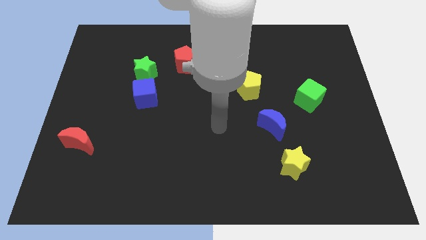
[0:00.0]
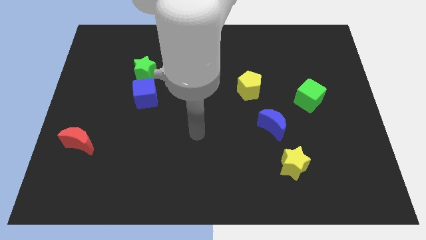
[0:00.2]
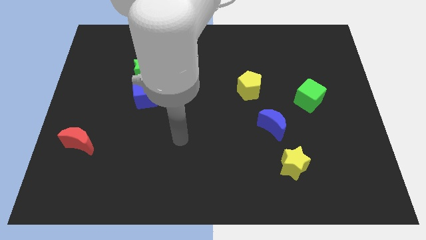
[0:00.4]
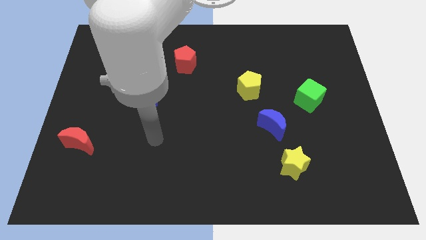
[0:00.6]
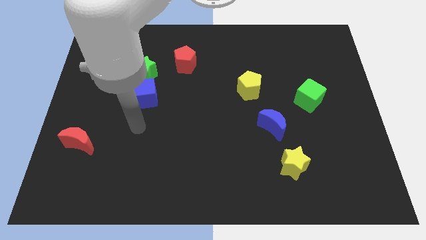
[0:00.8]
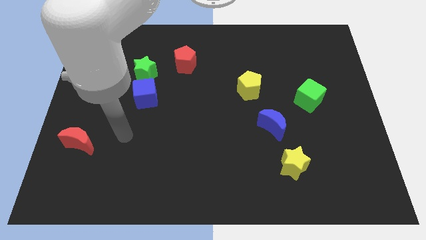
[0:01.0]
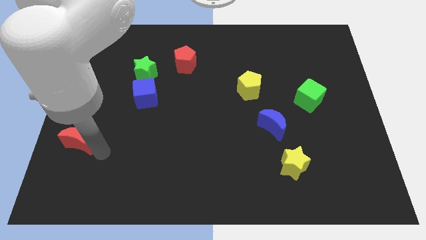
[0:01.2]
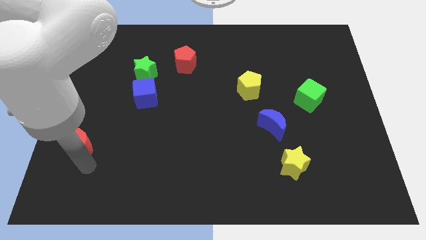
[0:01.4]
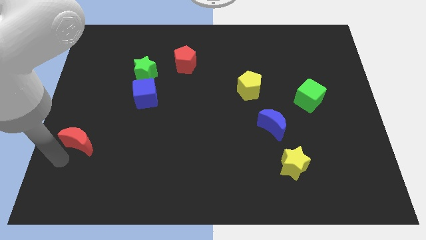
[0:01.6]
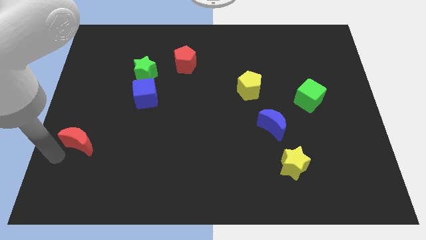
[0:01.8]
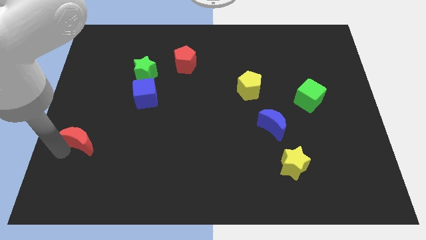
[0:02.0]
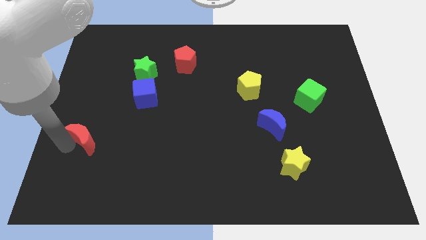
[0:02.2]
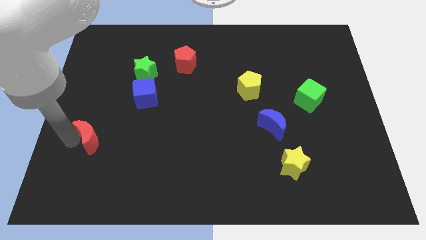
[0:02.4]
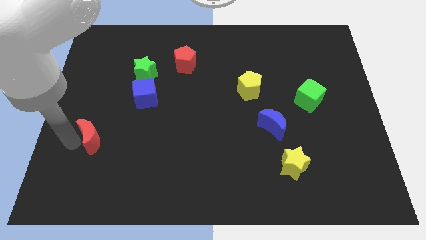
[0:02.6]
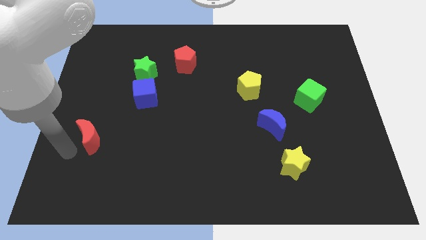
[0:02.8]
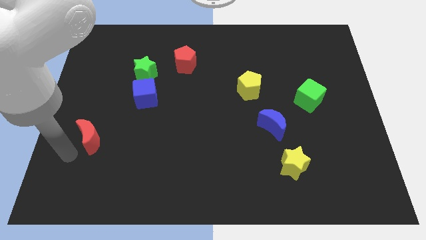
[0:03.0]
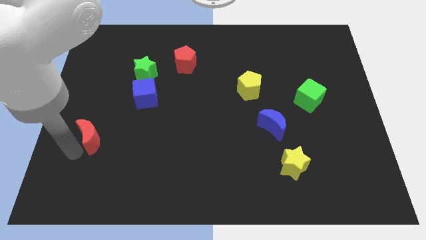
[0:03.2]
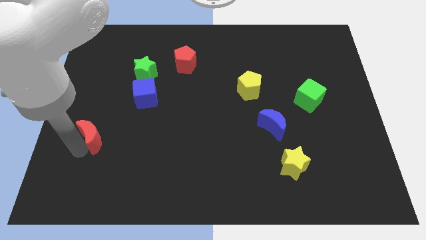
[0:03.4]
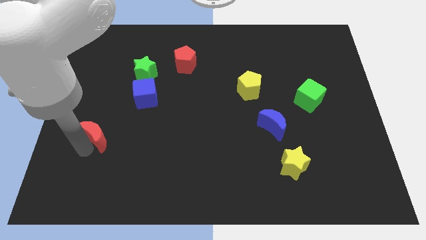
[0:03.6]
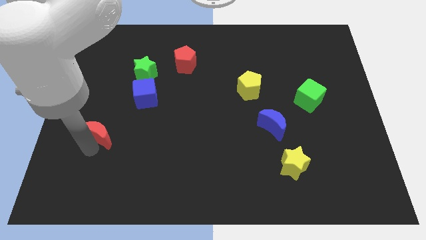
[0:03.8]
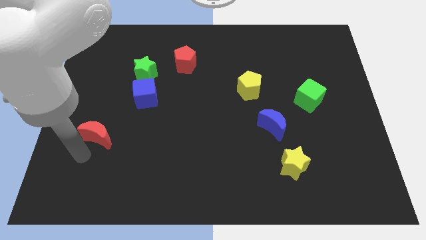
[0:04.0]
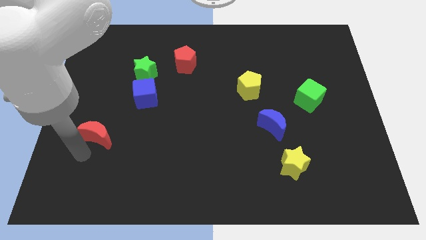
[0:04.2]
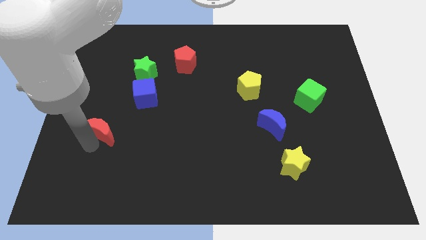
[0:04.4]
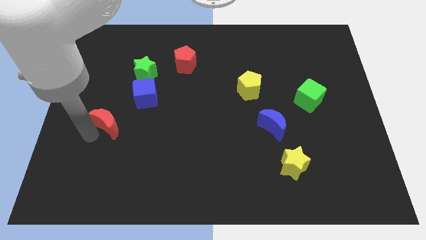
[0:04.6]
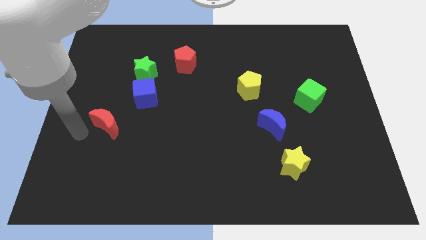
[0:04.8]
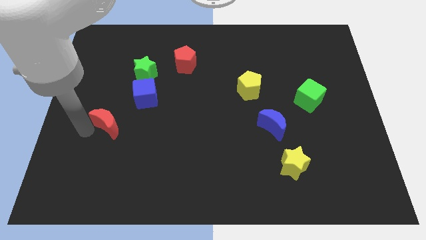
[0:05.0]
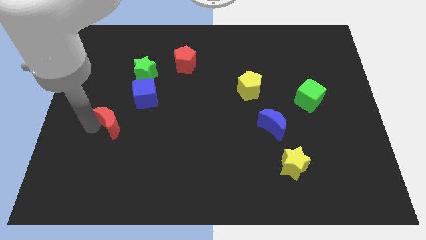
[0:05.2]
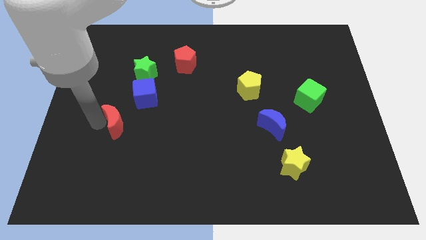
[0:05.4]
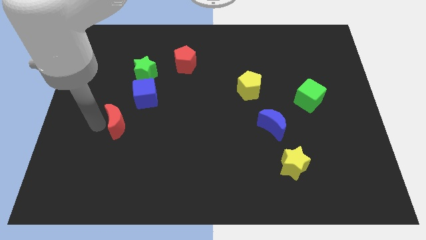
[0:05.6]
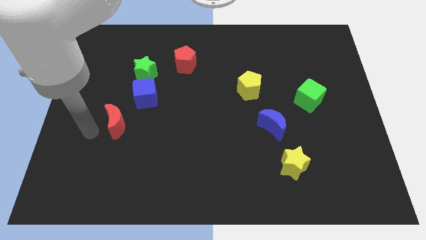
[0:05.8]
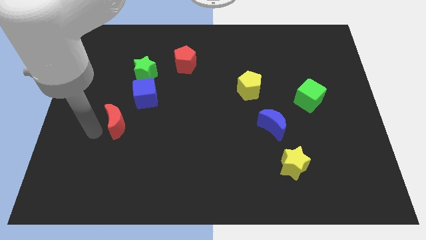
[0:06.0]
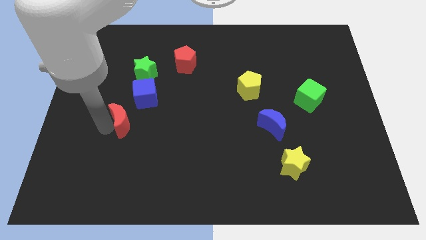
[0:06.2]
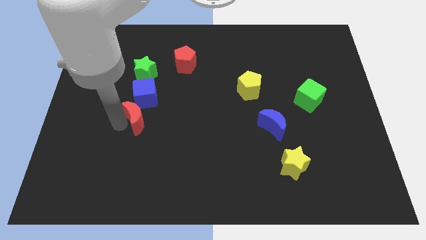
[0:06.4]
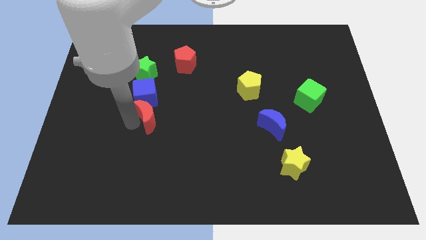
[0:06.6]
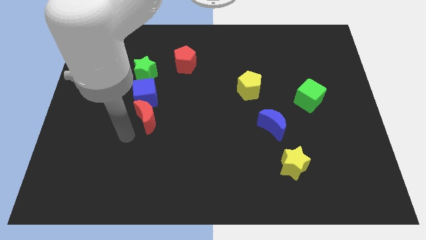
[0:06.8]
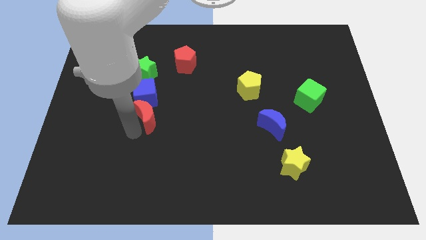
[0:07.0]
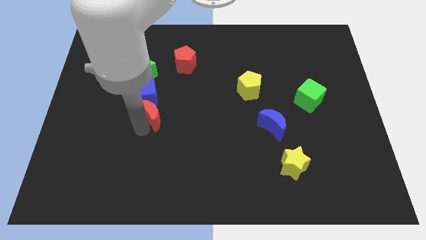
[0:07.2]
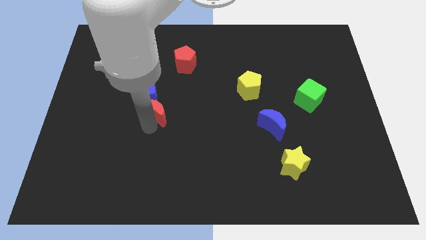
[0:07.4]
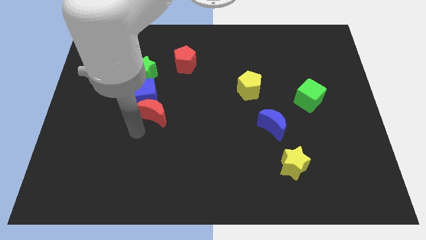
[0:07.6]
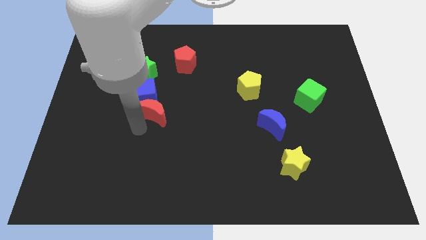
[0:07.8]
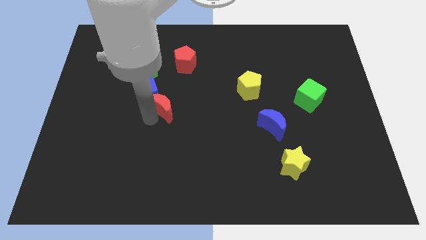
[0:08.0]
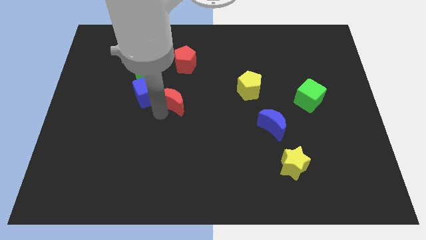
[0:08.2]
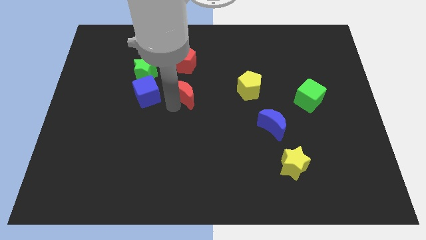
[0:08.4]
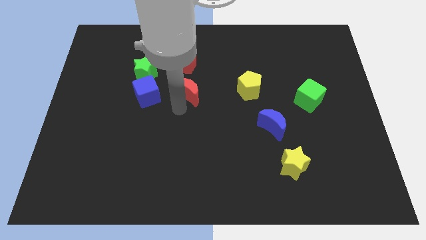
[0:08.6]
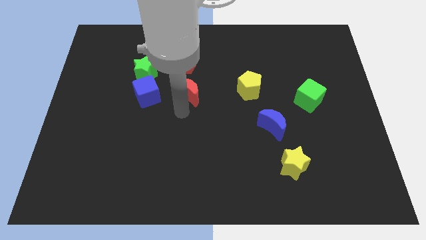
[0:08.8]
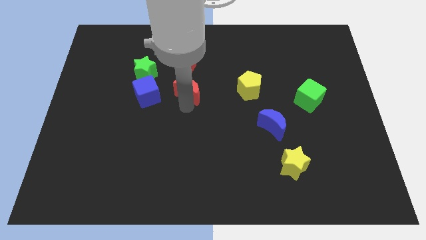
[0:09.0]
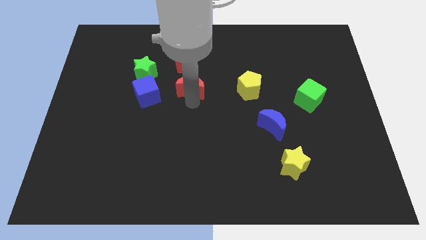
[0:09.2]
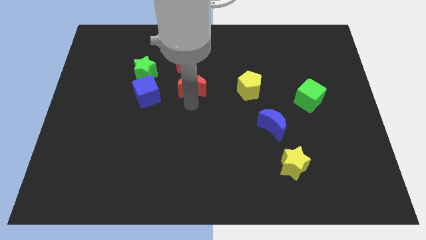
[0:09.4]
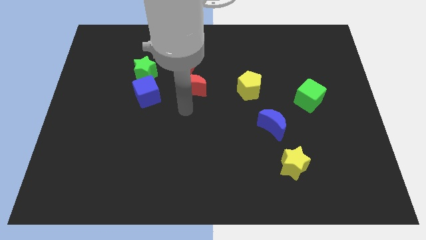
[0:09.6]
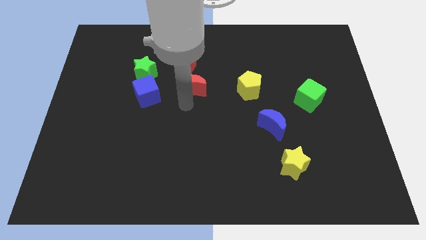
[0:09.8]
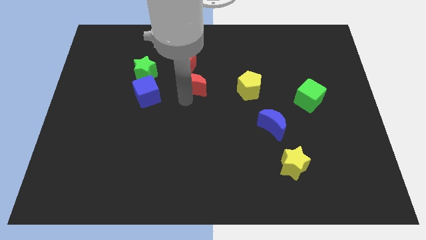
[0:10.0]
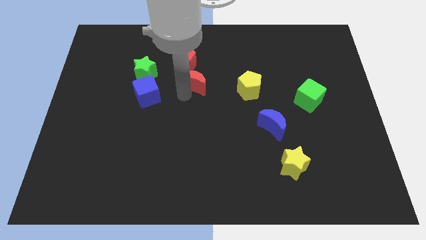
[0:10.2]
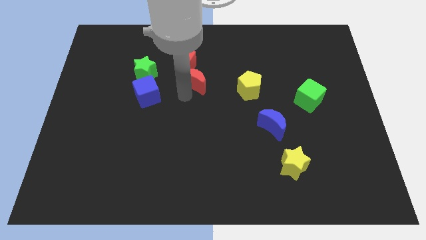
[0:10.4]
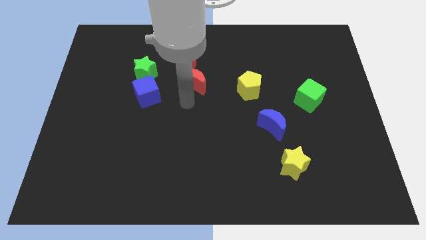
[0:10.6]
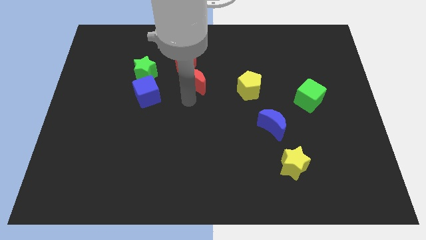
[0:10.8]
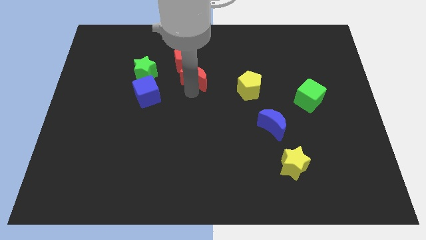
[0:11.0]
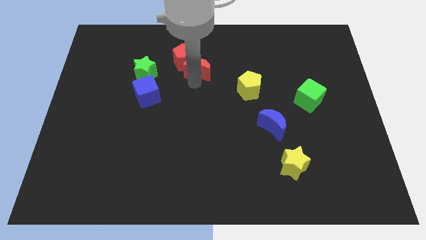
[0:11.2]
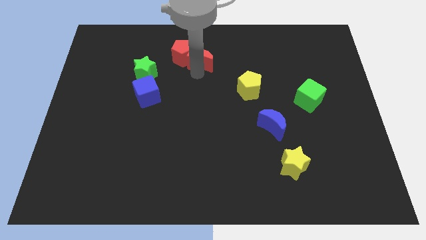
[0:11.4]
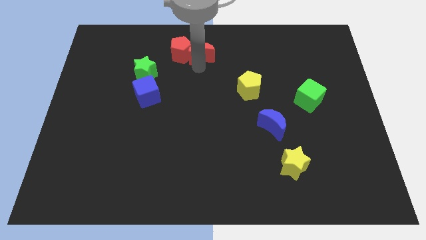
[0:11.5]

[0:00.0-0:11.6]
slide the red moon to the towards your base
